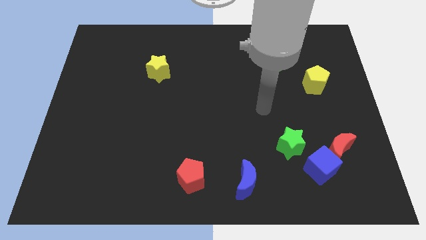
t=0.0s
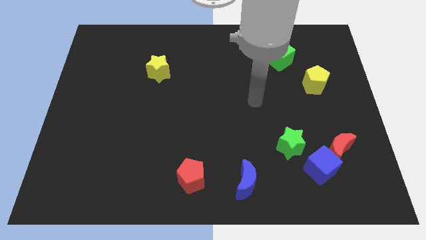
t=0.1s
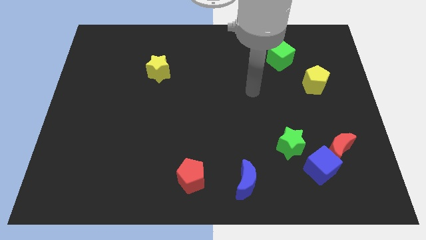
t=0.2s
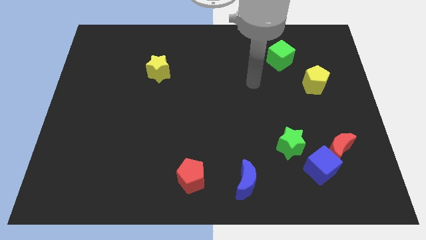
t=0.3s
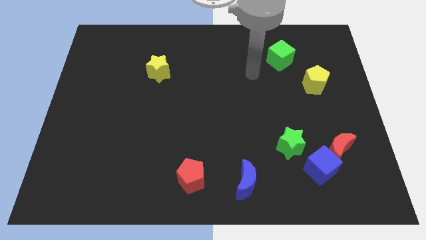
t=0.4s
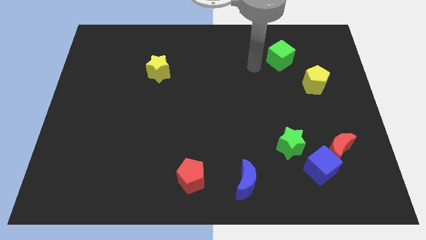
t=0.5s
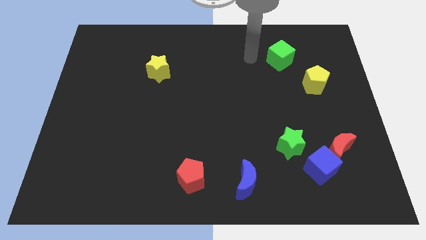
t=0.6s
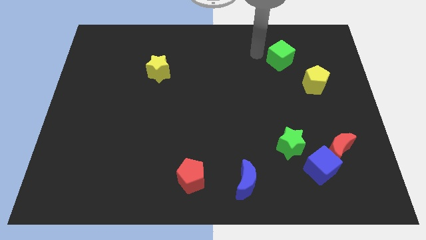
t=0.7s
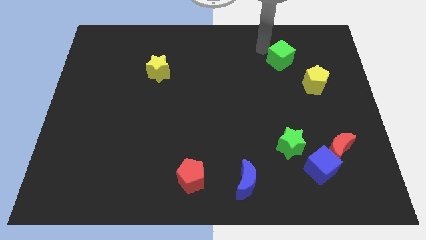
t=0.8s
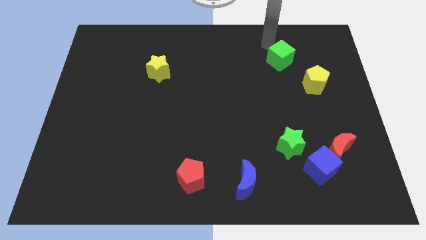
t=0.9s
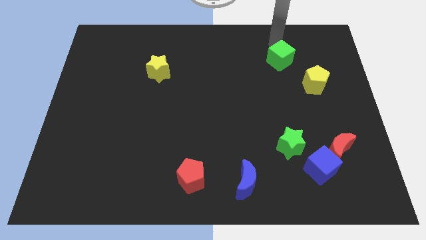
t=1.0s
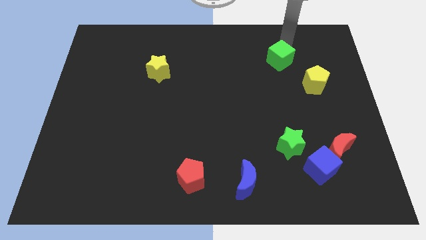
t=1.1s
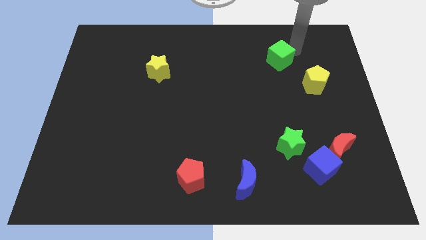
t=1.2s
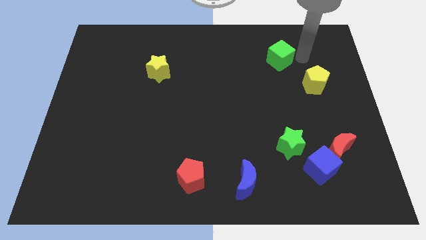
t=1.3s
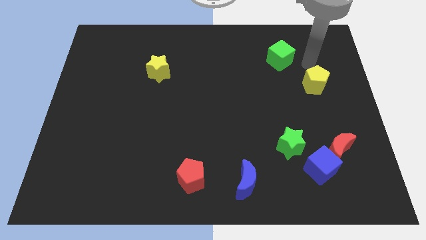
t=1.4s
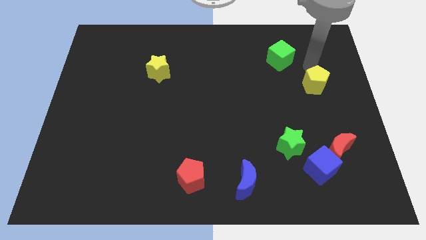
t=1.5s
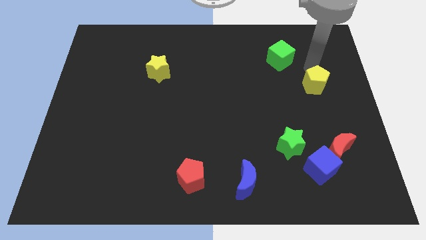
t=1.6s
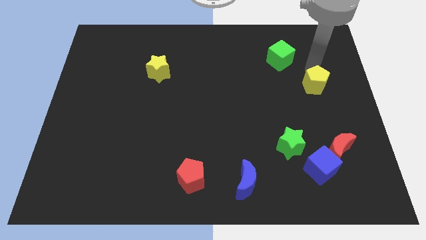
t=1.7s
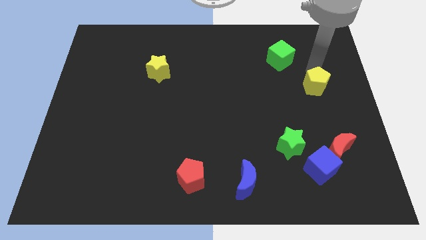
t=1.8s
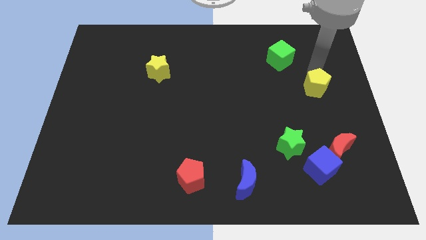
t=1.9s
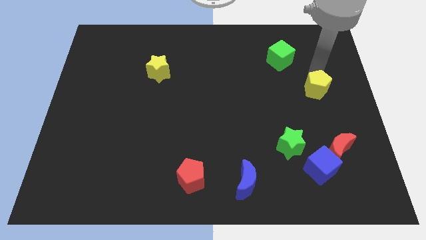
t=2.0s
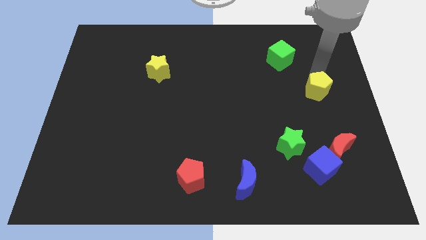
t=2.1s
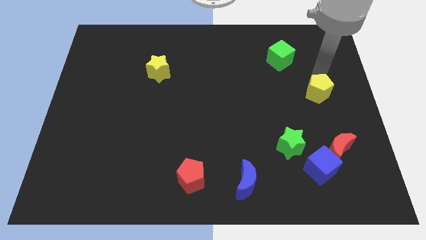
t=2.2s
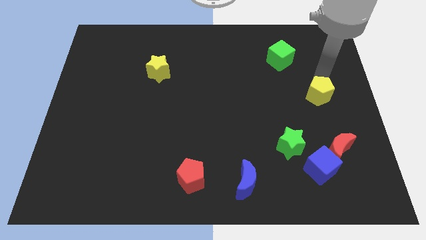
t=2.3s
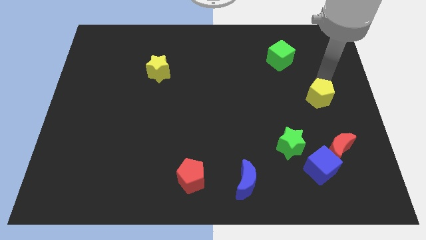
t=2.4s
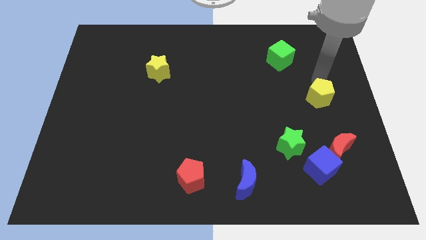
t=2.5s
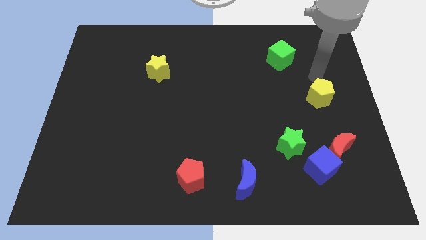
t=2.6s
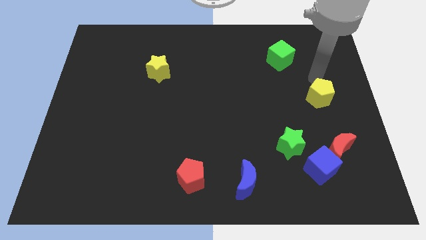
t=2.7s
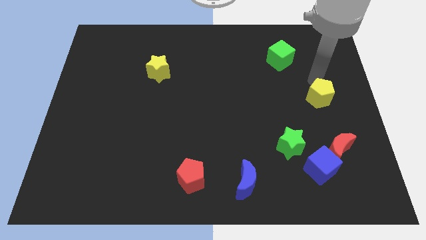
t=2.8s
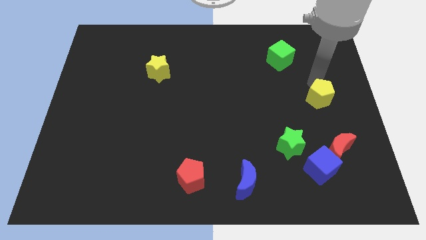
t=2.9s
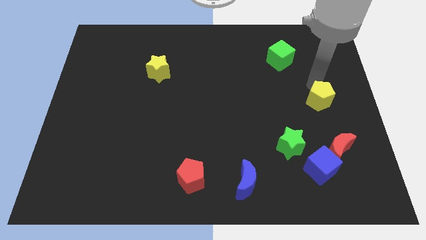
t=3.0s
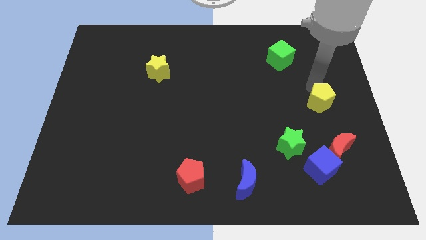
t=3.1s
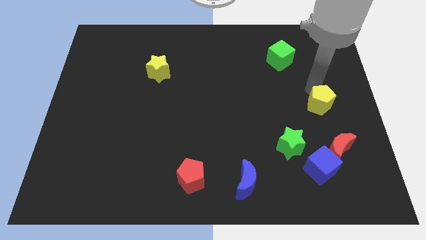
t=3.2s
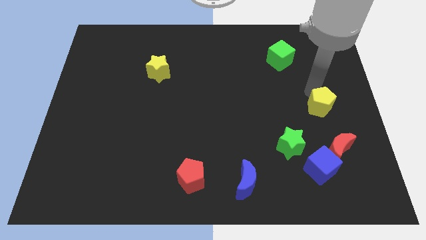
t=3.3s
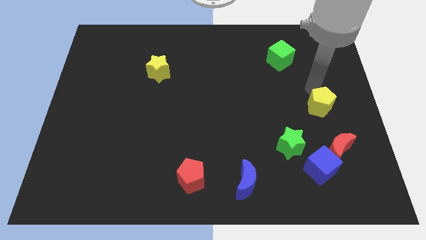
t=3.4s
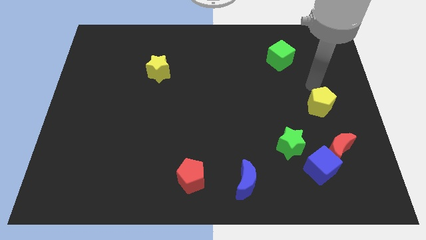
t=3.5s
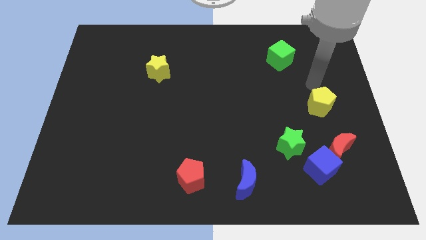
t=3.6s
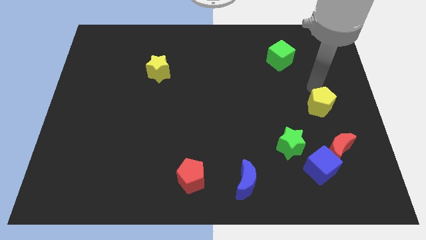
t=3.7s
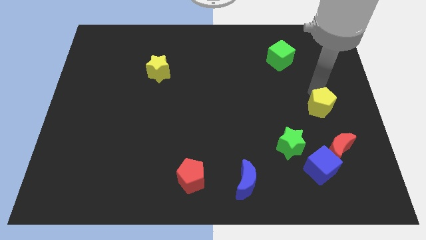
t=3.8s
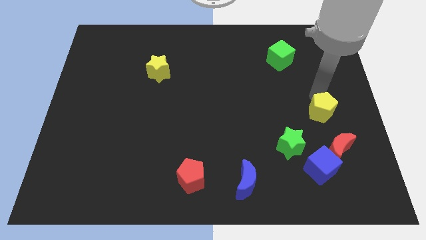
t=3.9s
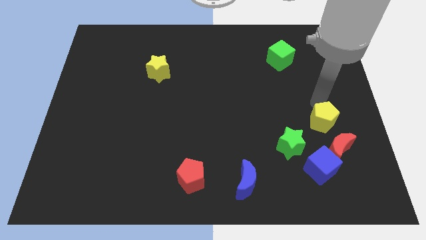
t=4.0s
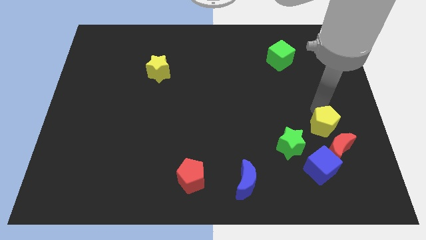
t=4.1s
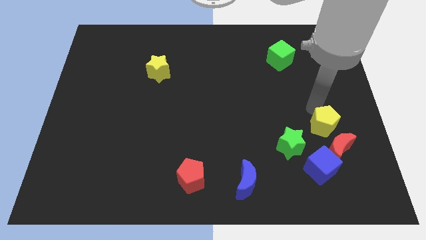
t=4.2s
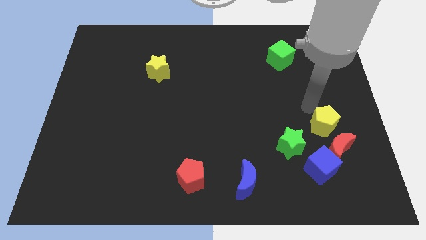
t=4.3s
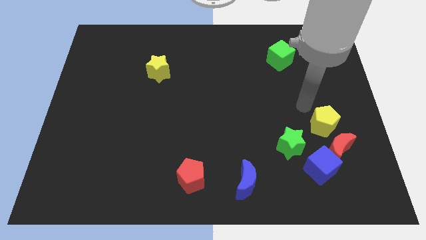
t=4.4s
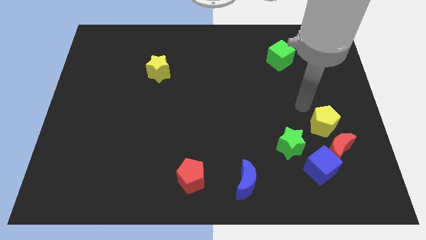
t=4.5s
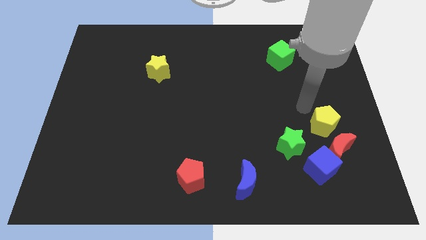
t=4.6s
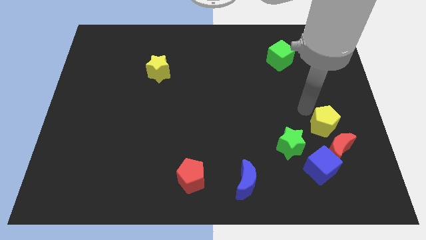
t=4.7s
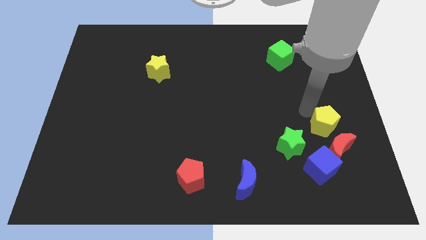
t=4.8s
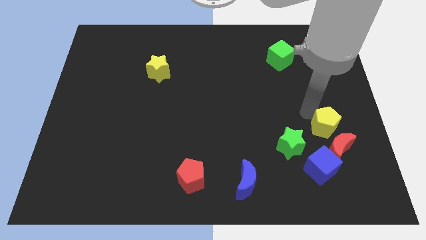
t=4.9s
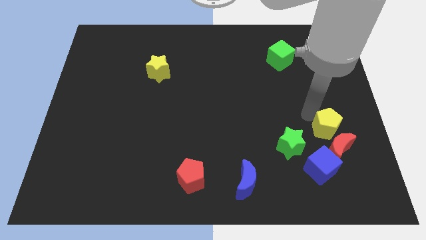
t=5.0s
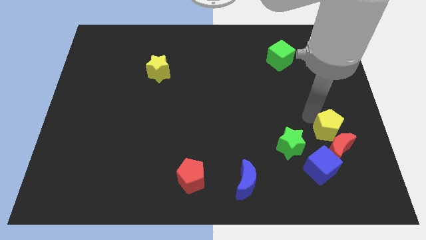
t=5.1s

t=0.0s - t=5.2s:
push the yellow pentagon close to the red moon

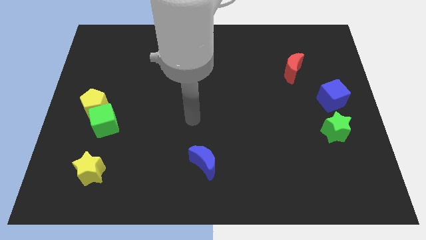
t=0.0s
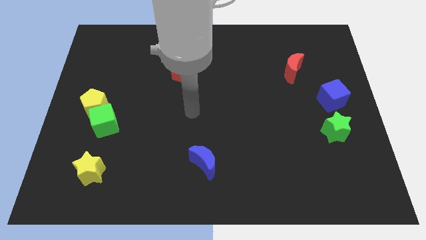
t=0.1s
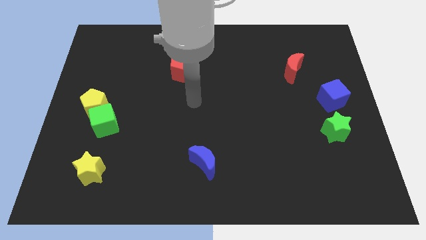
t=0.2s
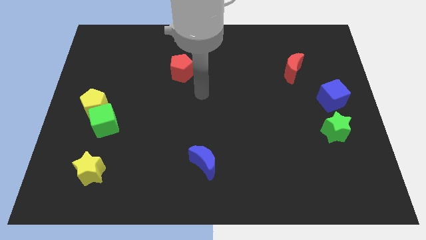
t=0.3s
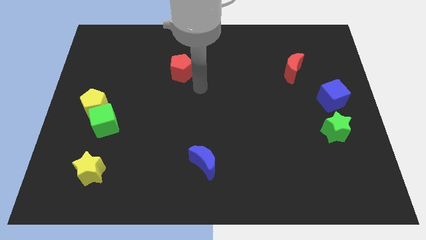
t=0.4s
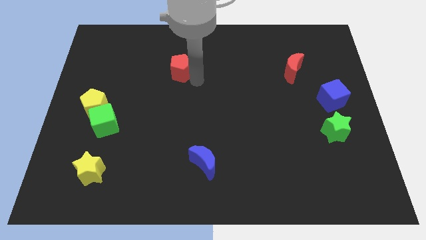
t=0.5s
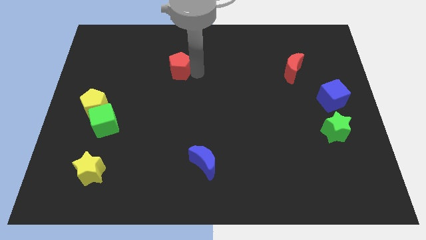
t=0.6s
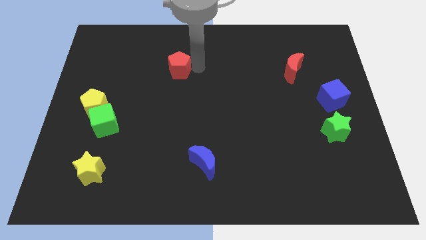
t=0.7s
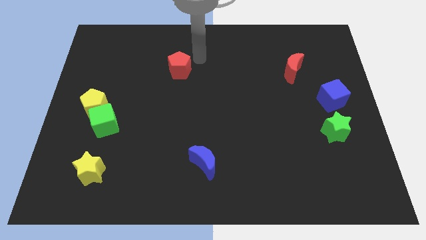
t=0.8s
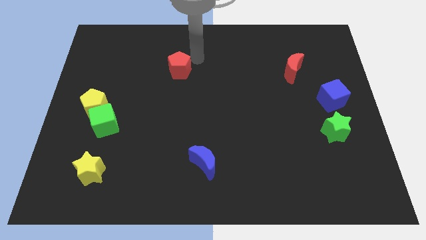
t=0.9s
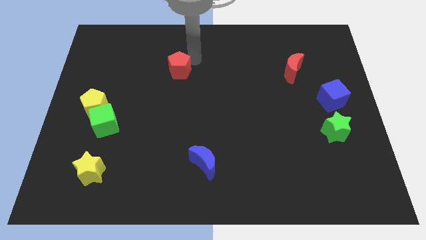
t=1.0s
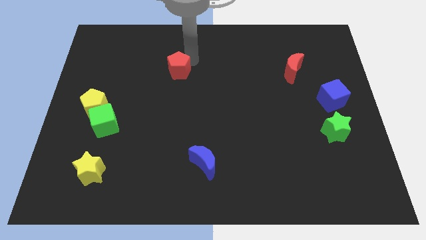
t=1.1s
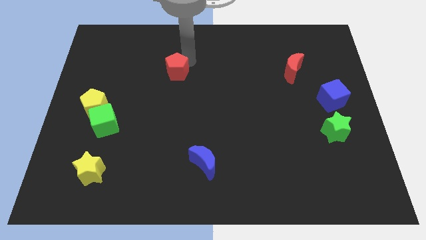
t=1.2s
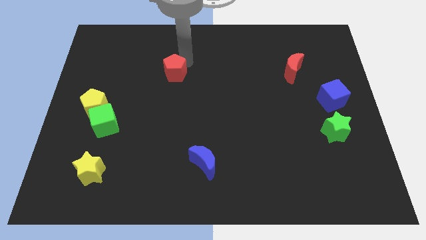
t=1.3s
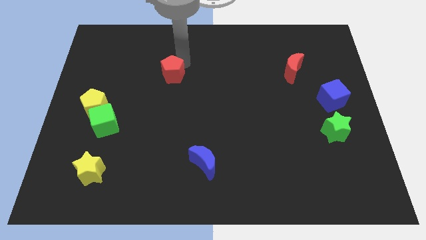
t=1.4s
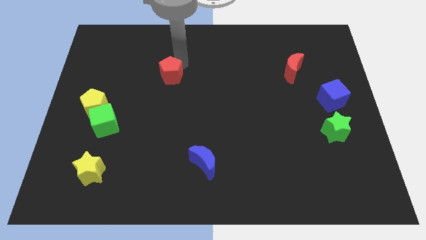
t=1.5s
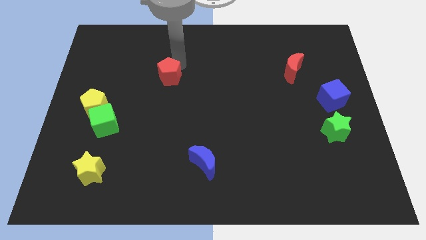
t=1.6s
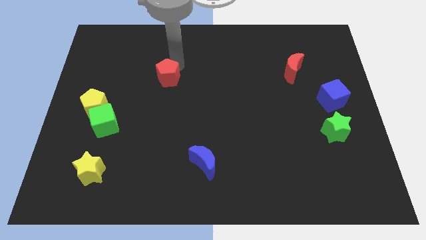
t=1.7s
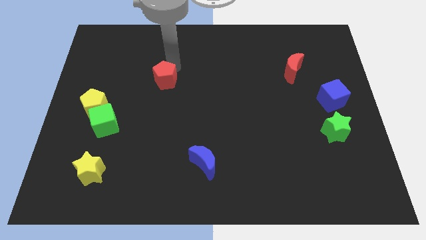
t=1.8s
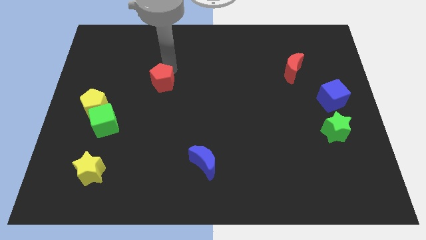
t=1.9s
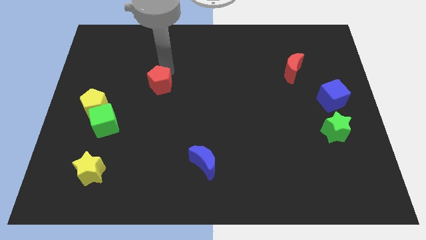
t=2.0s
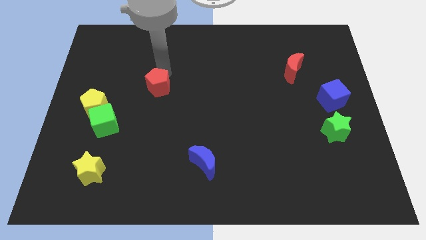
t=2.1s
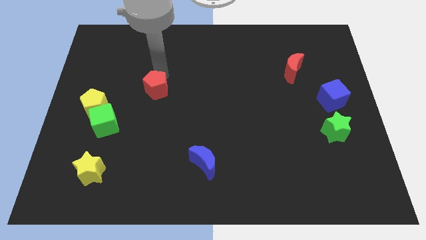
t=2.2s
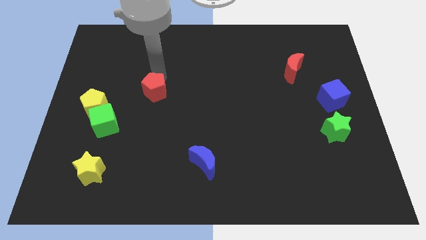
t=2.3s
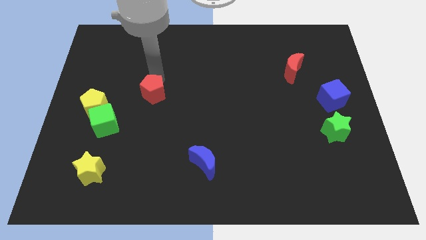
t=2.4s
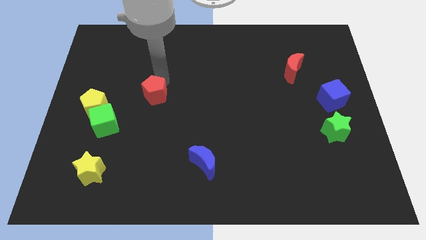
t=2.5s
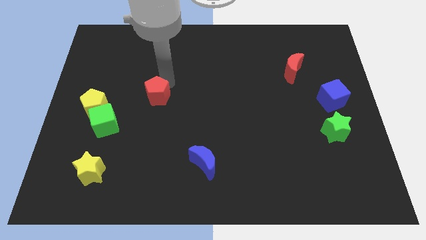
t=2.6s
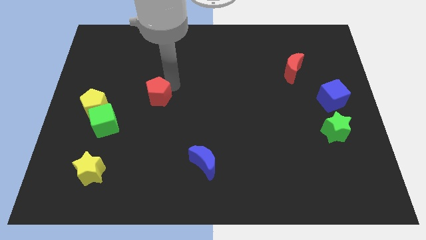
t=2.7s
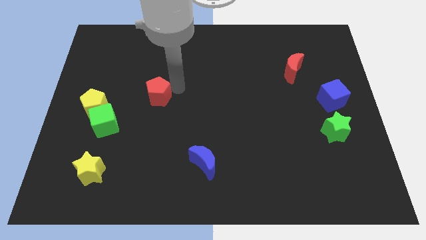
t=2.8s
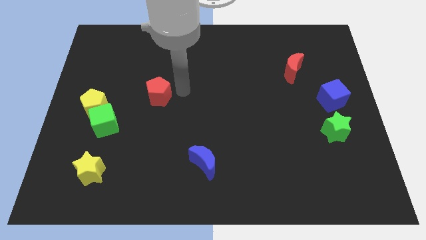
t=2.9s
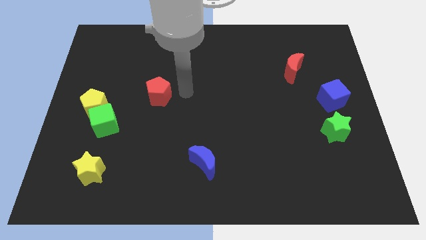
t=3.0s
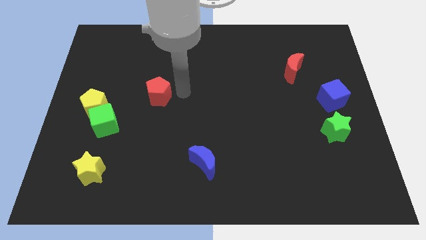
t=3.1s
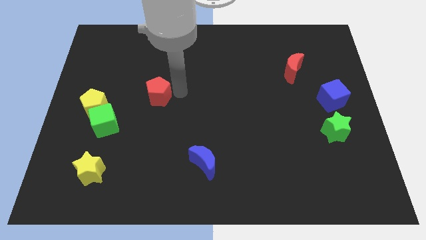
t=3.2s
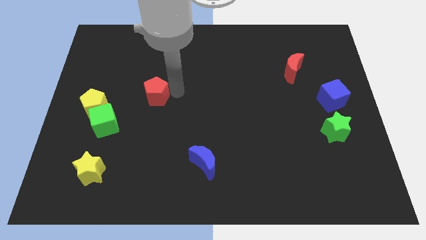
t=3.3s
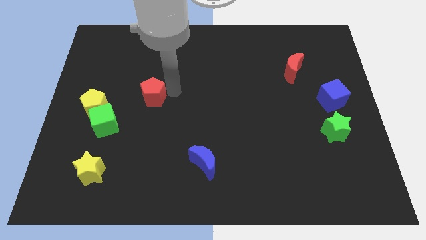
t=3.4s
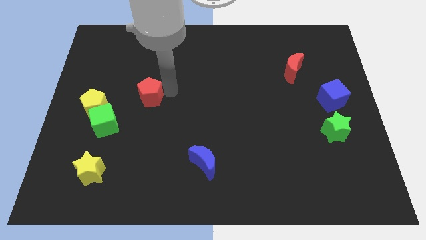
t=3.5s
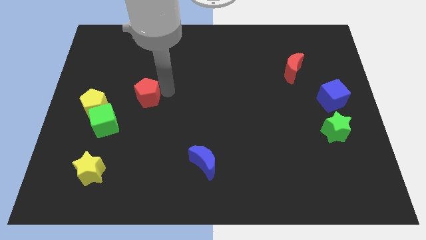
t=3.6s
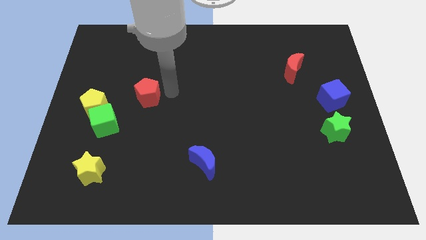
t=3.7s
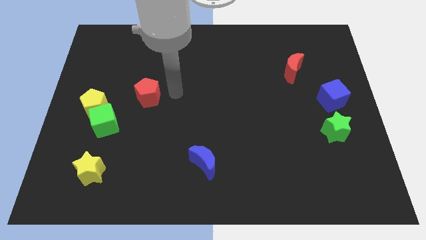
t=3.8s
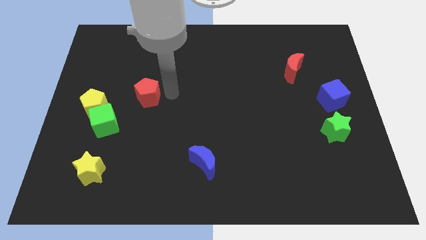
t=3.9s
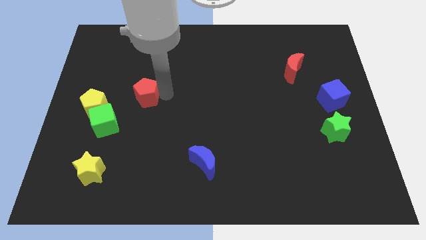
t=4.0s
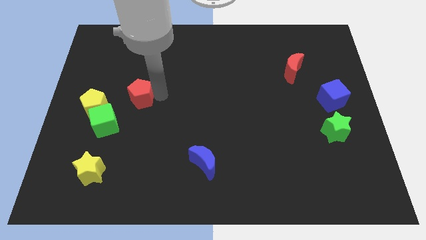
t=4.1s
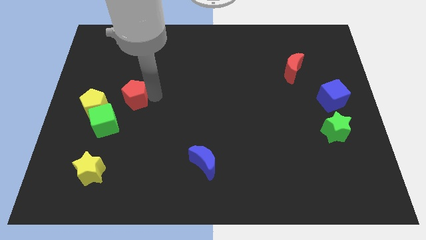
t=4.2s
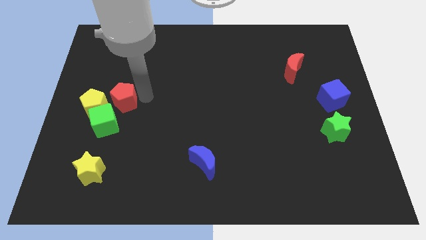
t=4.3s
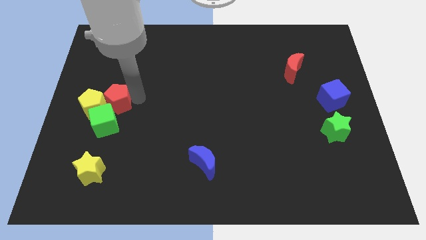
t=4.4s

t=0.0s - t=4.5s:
push the red pentagon next to the yellow pentagon
